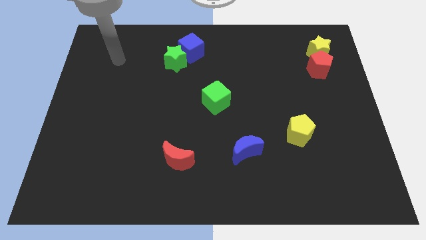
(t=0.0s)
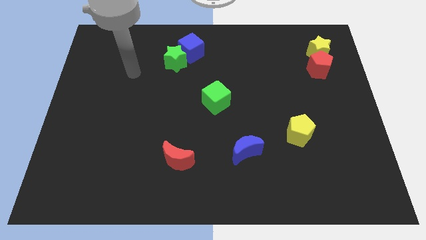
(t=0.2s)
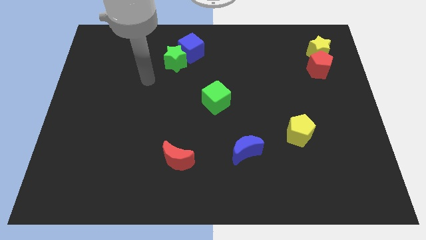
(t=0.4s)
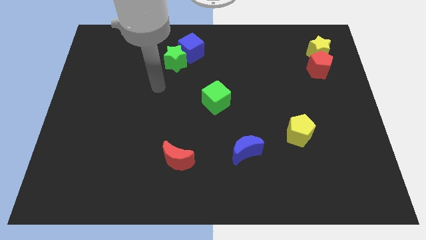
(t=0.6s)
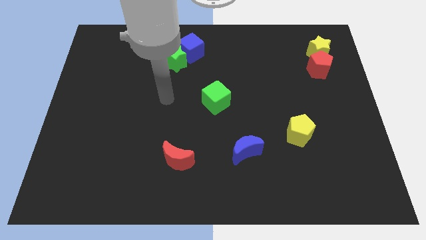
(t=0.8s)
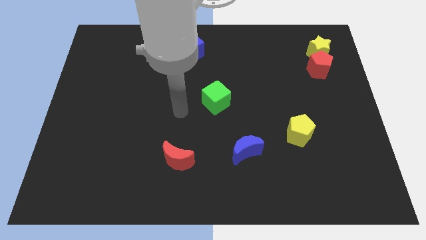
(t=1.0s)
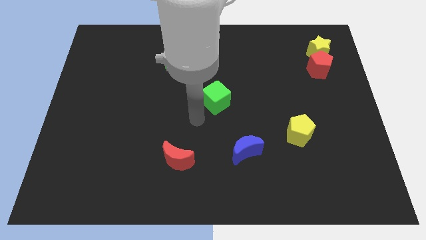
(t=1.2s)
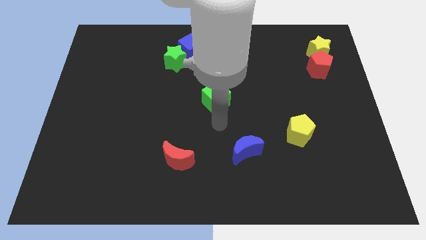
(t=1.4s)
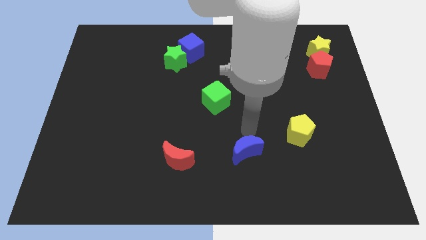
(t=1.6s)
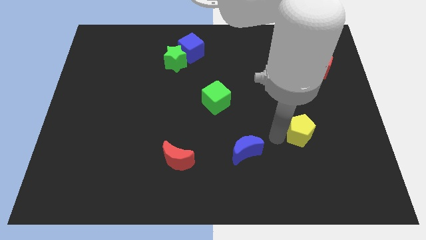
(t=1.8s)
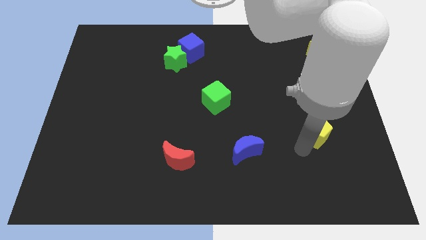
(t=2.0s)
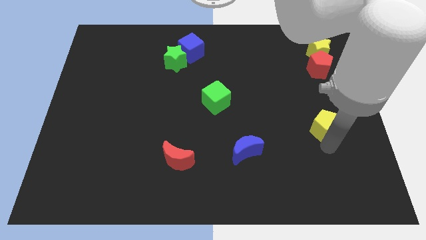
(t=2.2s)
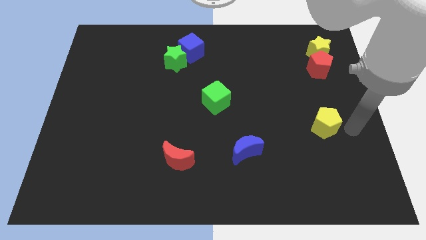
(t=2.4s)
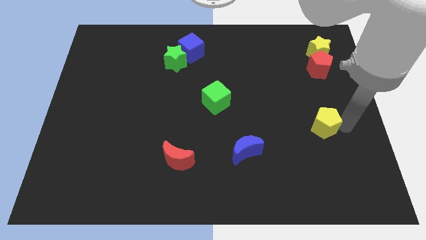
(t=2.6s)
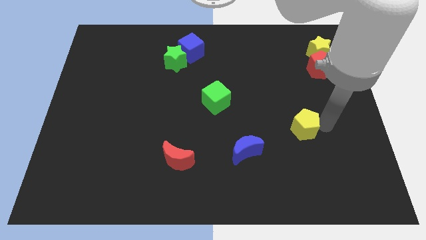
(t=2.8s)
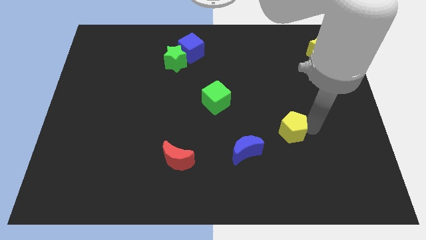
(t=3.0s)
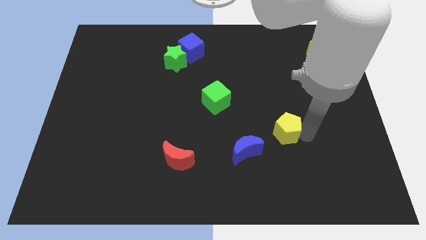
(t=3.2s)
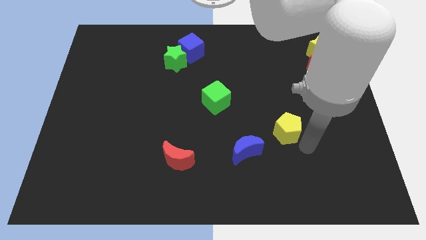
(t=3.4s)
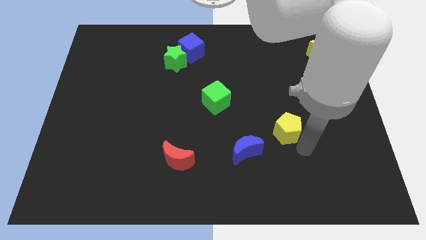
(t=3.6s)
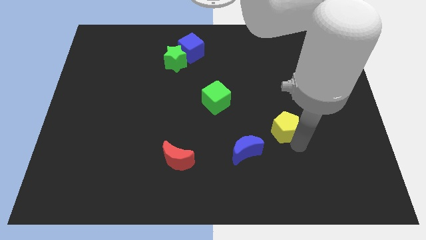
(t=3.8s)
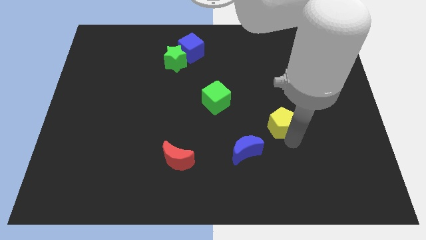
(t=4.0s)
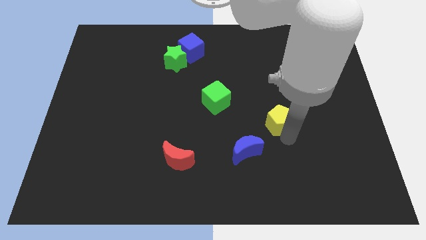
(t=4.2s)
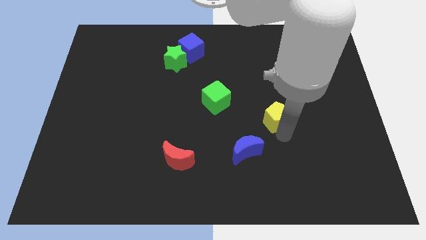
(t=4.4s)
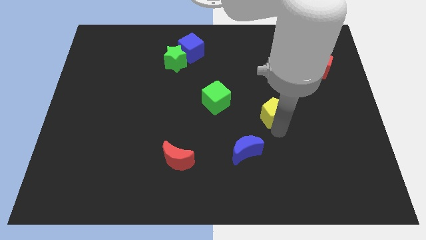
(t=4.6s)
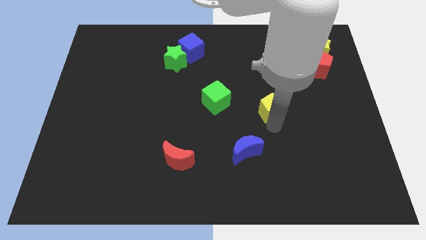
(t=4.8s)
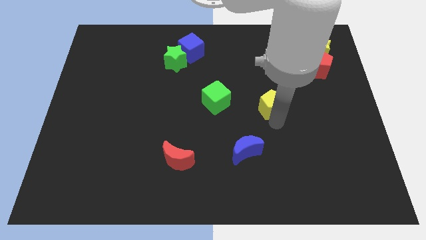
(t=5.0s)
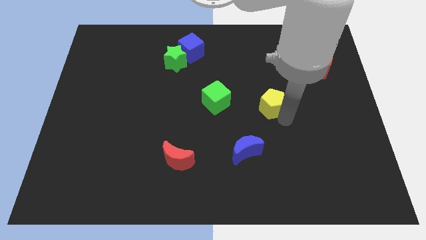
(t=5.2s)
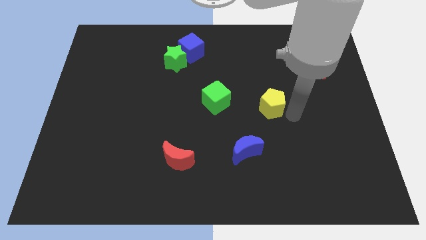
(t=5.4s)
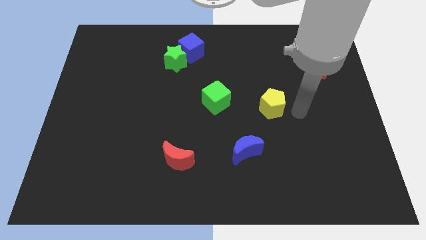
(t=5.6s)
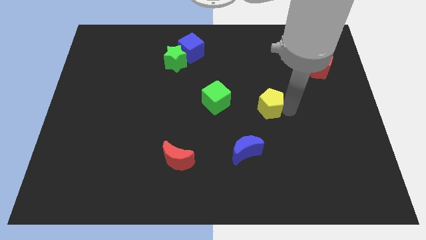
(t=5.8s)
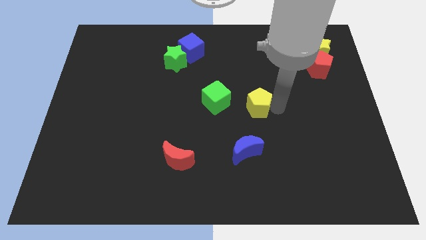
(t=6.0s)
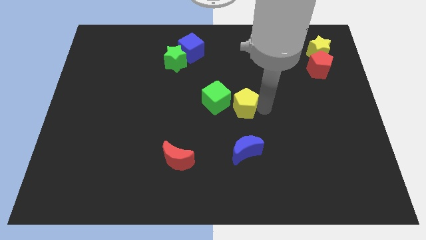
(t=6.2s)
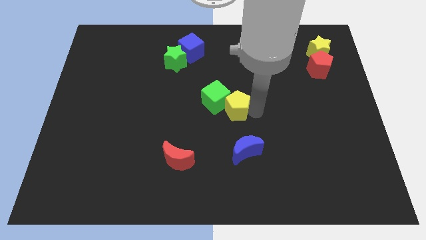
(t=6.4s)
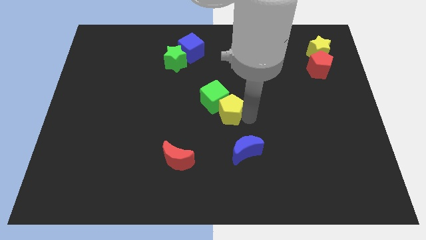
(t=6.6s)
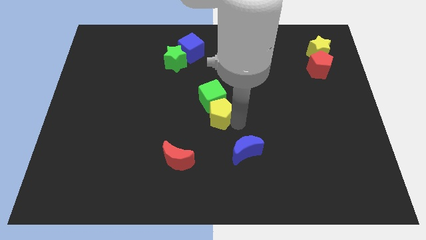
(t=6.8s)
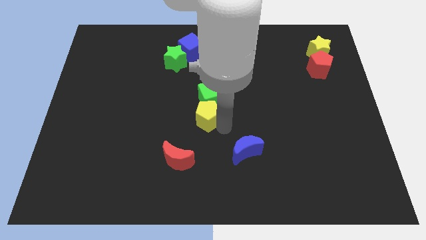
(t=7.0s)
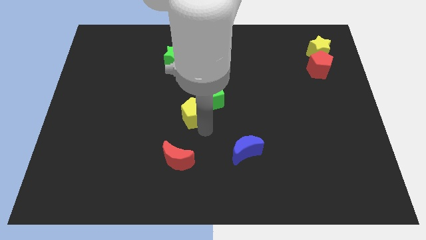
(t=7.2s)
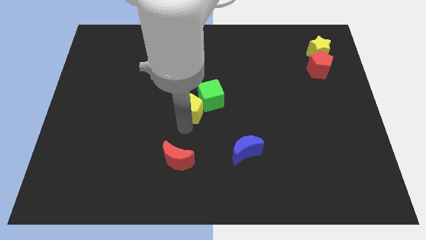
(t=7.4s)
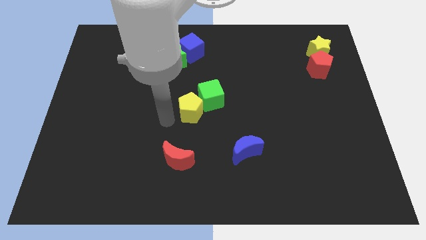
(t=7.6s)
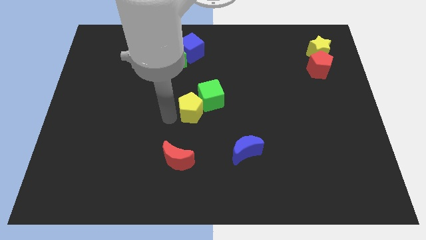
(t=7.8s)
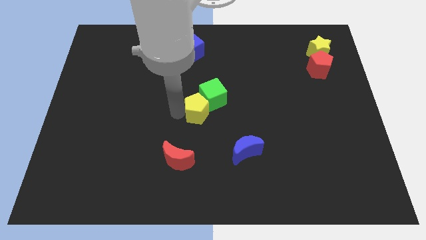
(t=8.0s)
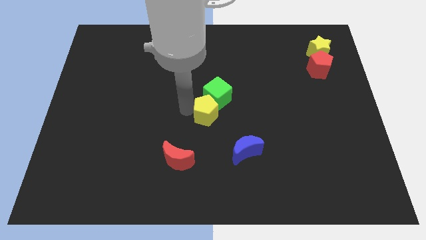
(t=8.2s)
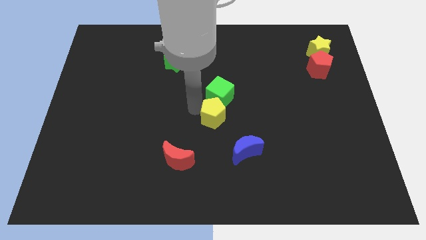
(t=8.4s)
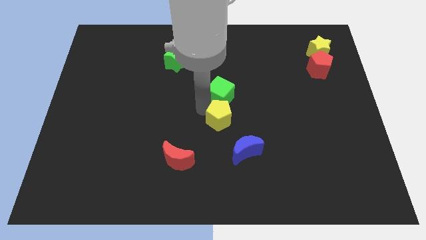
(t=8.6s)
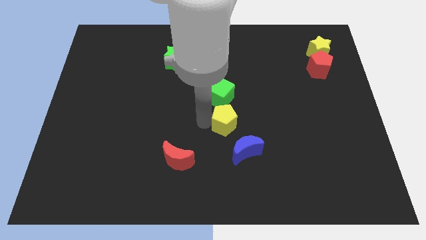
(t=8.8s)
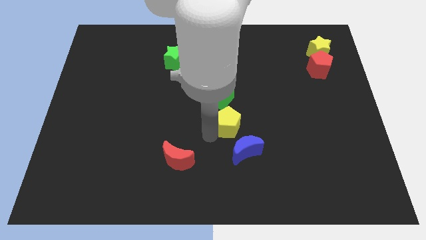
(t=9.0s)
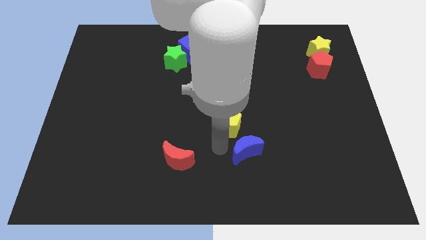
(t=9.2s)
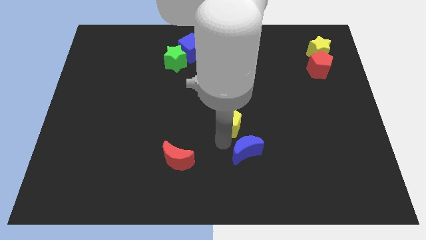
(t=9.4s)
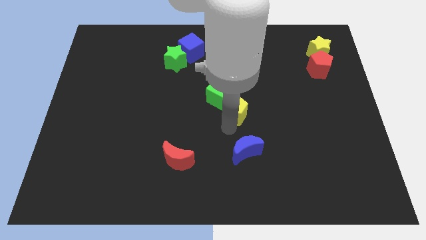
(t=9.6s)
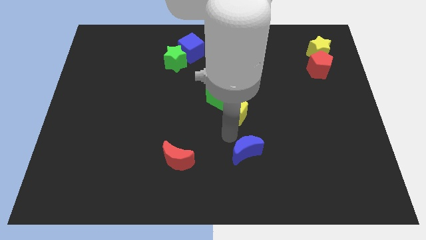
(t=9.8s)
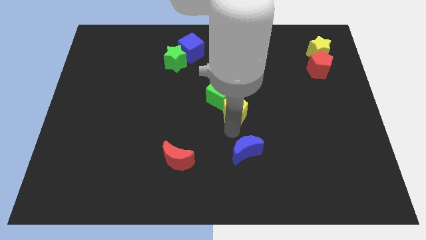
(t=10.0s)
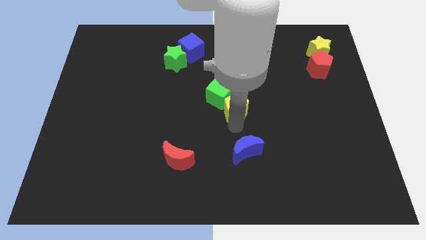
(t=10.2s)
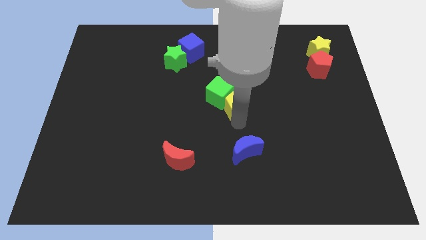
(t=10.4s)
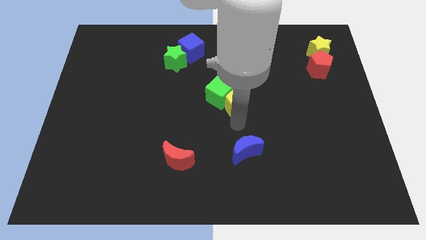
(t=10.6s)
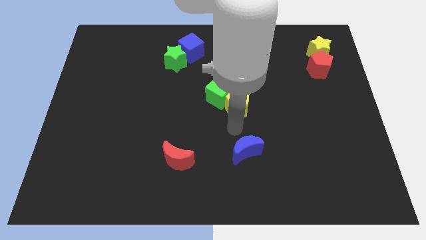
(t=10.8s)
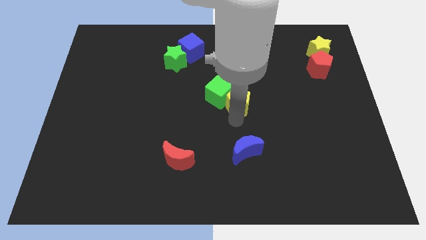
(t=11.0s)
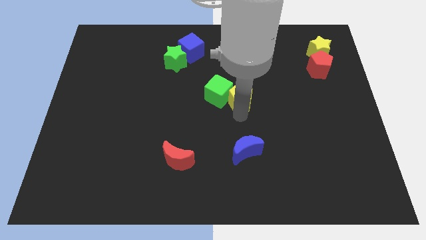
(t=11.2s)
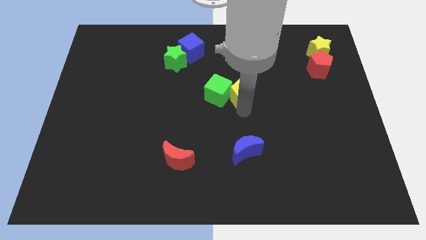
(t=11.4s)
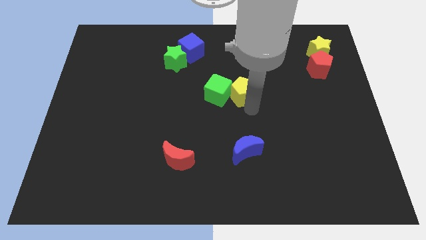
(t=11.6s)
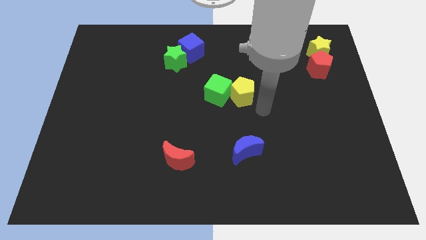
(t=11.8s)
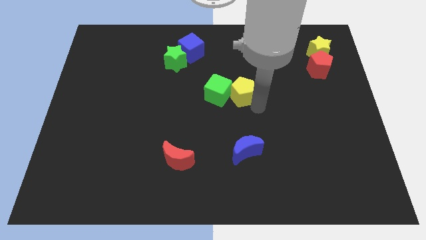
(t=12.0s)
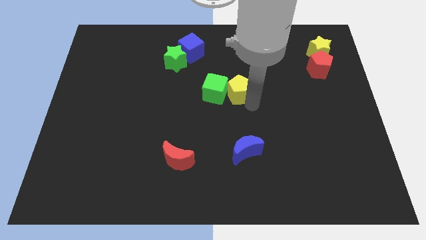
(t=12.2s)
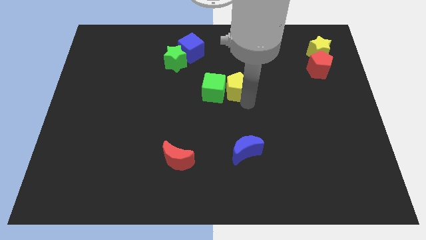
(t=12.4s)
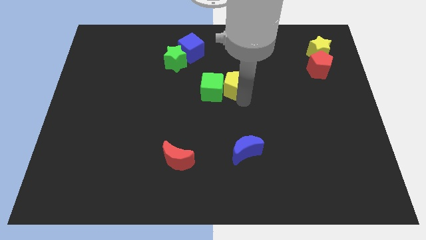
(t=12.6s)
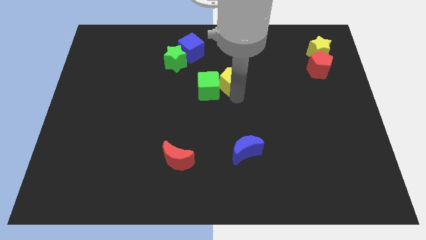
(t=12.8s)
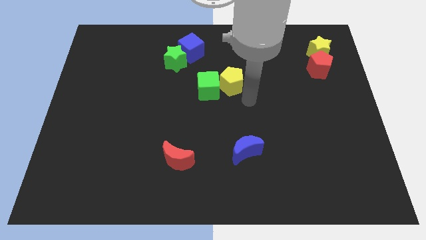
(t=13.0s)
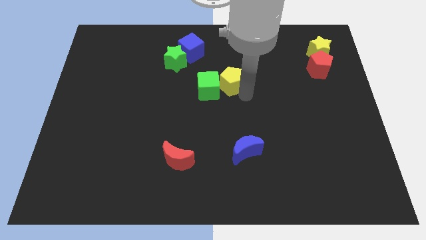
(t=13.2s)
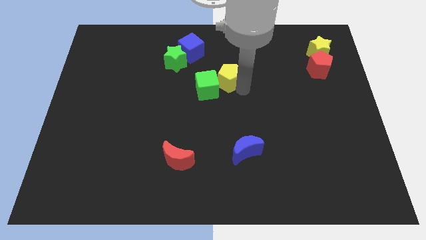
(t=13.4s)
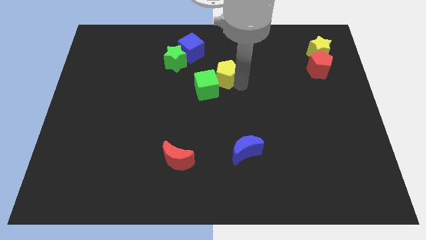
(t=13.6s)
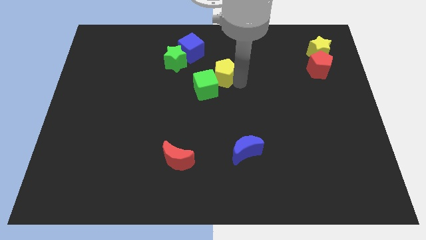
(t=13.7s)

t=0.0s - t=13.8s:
put the yellow pentagon to the bottom right of the blue cube
